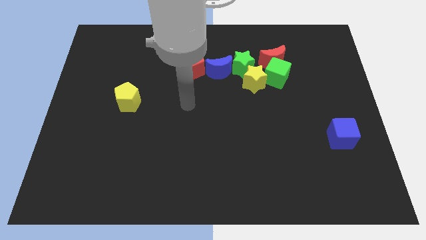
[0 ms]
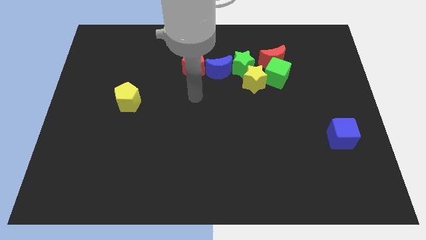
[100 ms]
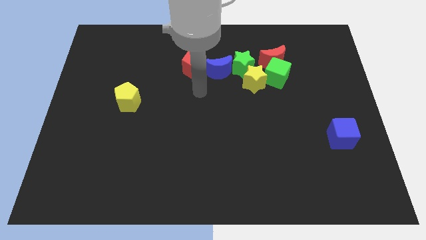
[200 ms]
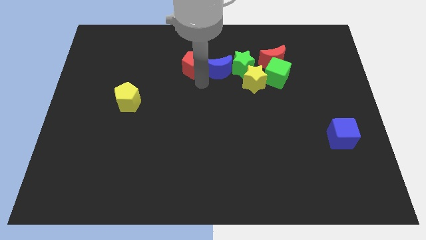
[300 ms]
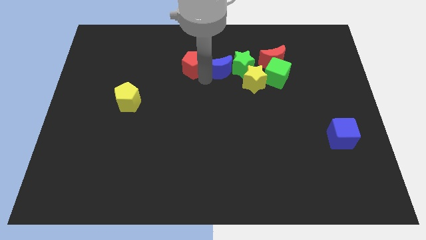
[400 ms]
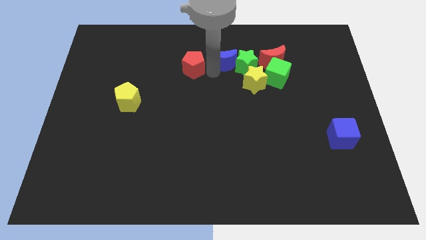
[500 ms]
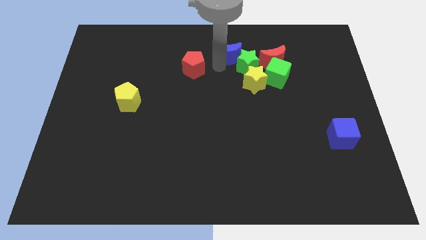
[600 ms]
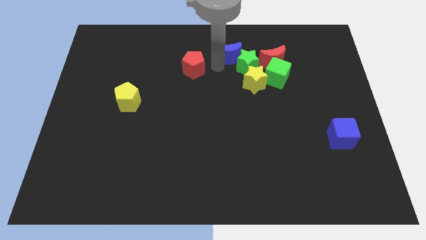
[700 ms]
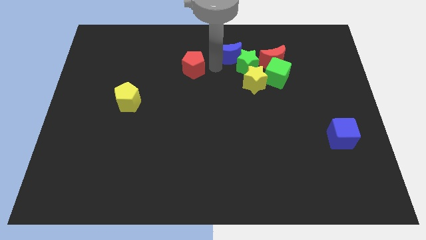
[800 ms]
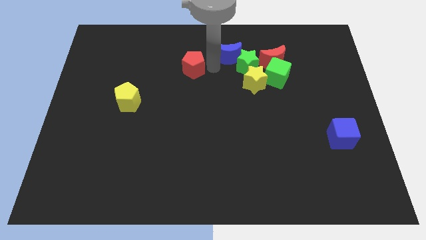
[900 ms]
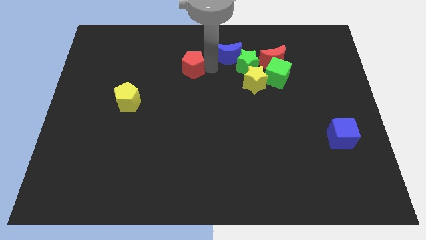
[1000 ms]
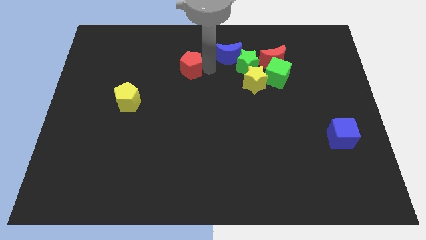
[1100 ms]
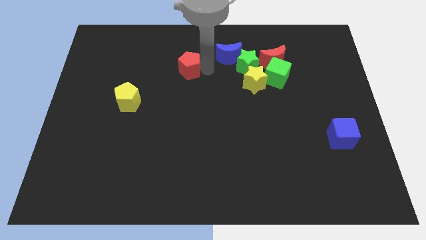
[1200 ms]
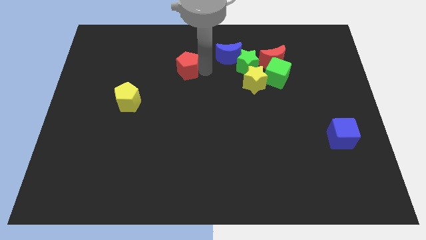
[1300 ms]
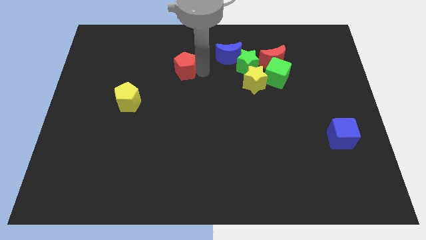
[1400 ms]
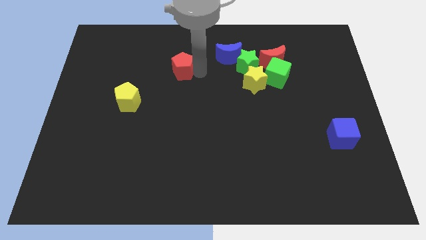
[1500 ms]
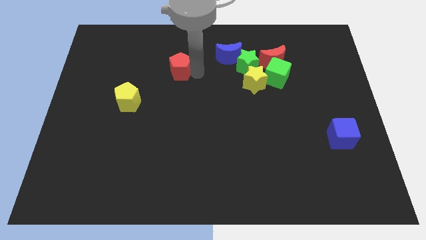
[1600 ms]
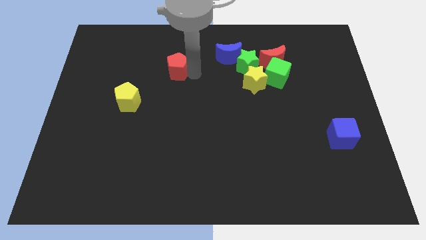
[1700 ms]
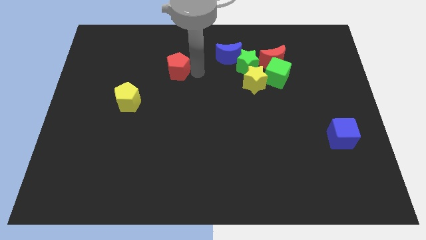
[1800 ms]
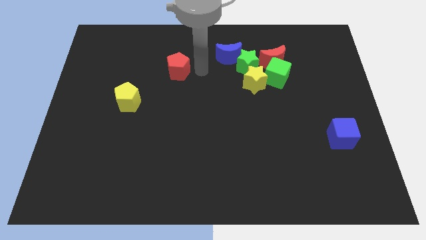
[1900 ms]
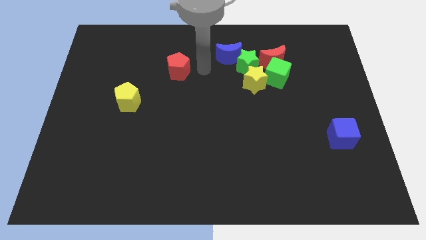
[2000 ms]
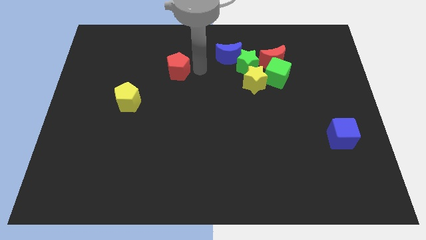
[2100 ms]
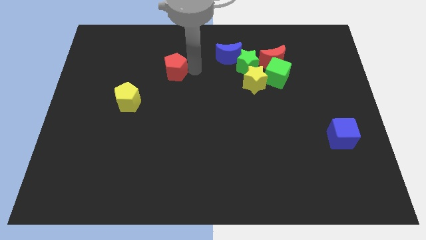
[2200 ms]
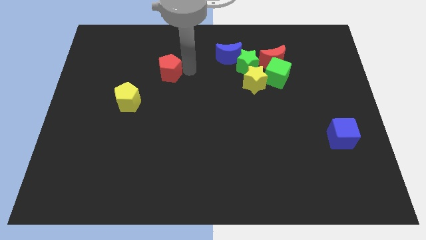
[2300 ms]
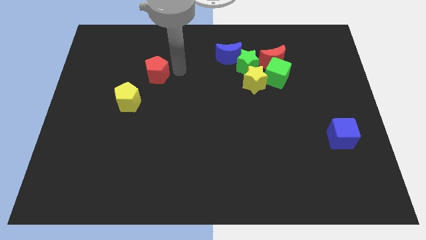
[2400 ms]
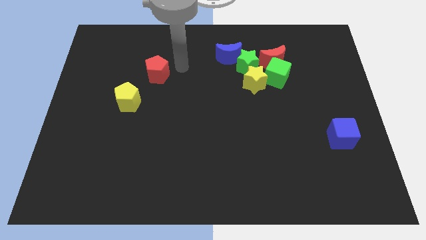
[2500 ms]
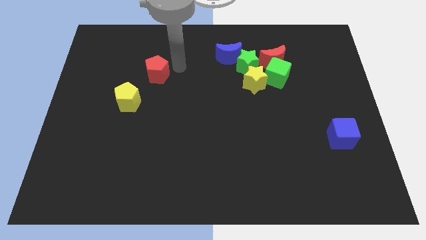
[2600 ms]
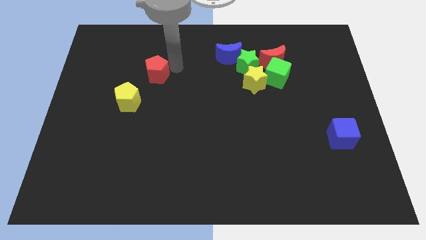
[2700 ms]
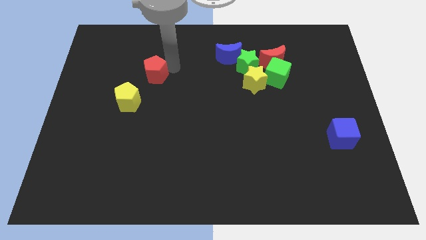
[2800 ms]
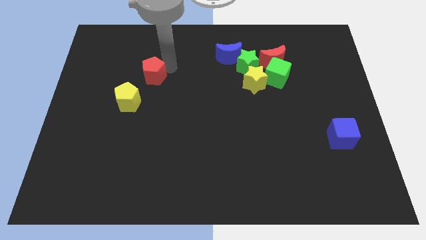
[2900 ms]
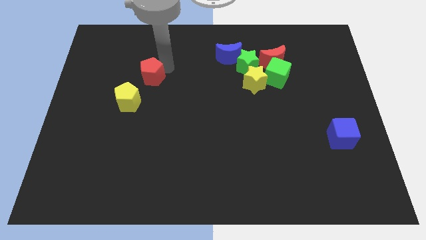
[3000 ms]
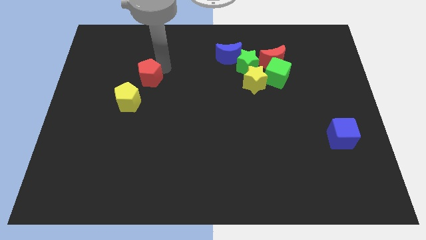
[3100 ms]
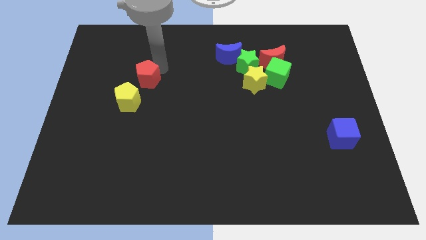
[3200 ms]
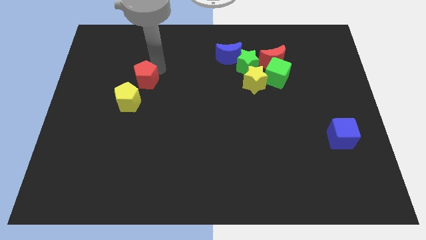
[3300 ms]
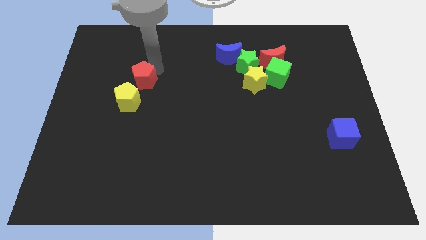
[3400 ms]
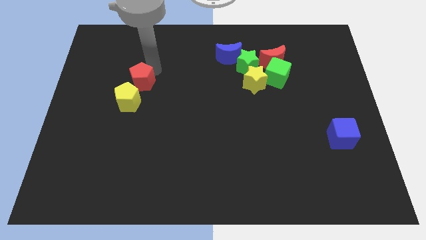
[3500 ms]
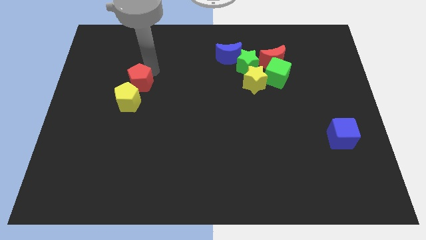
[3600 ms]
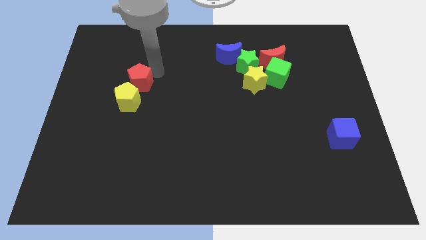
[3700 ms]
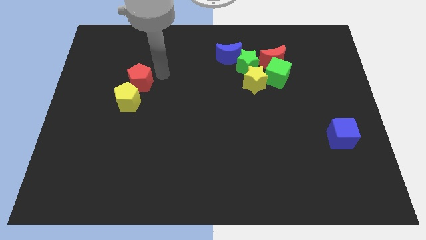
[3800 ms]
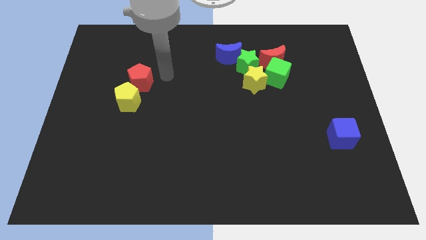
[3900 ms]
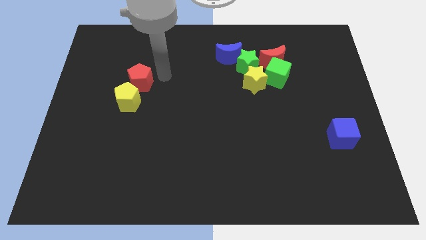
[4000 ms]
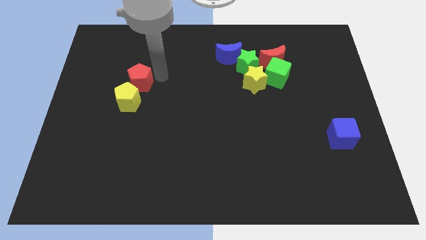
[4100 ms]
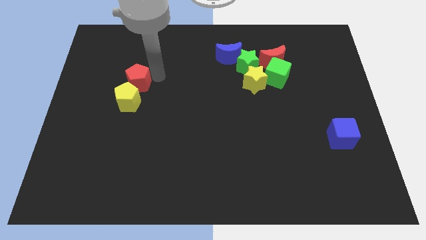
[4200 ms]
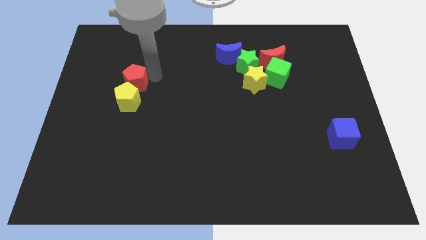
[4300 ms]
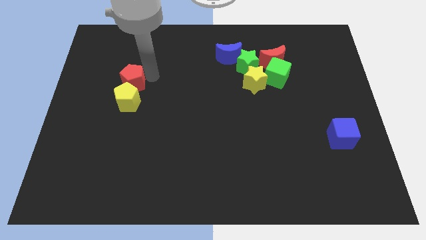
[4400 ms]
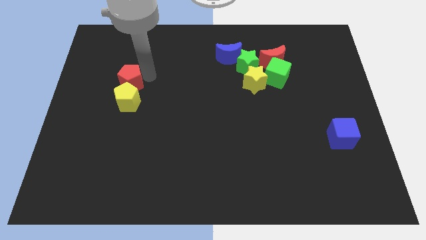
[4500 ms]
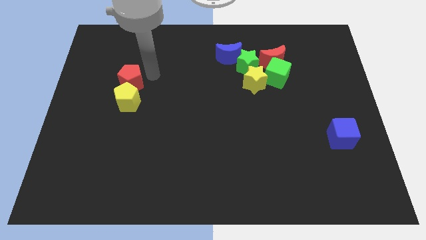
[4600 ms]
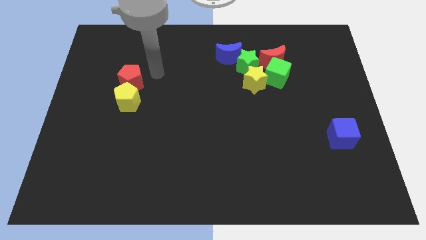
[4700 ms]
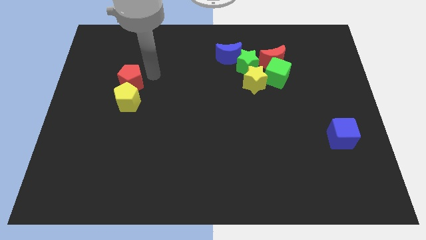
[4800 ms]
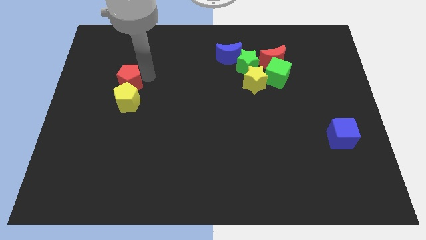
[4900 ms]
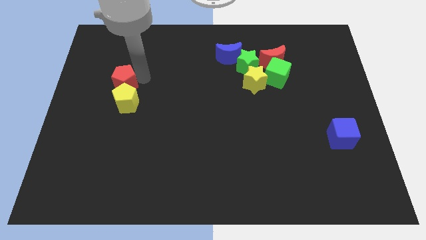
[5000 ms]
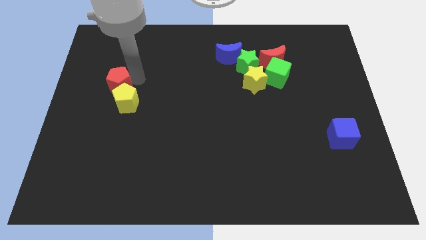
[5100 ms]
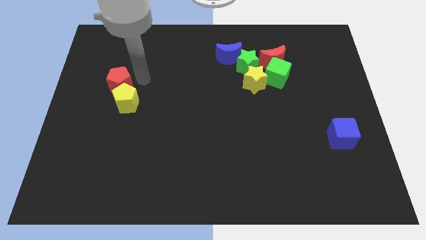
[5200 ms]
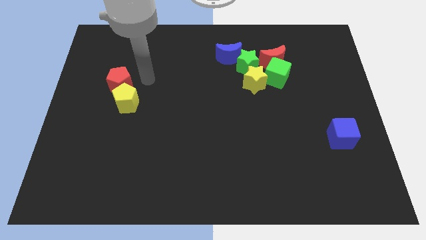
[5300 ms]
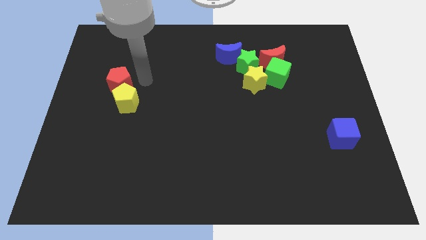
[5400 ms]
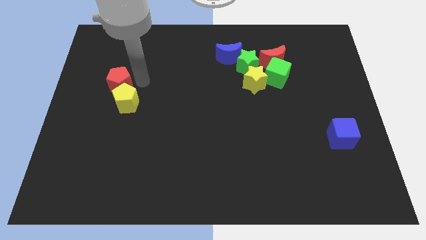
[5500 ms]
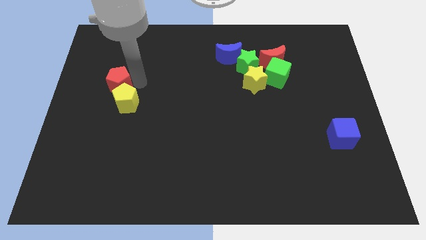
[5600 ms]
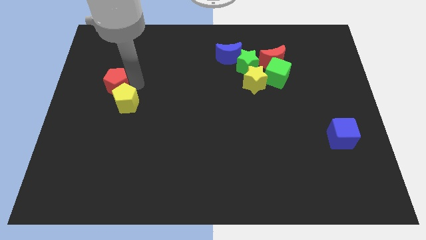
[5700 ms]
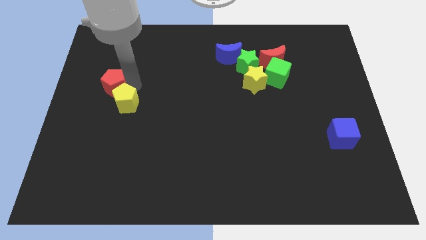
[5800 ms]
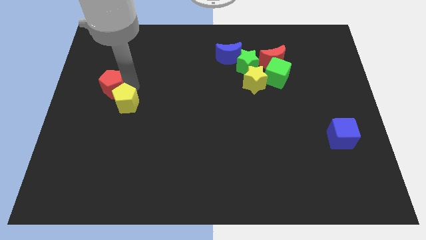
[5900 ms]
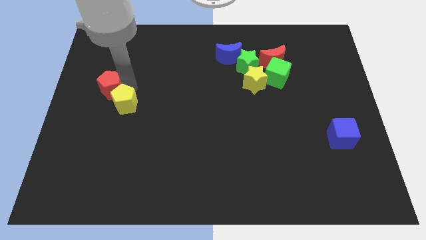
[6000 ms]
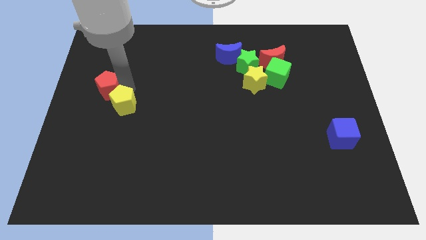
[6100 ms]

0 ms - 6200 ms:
move the red pentagon to the center left

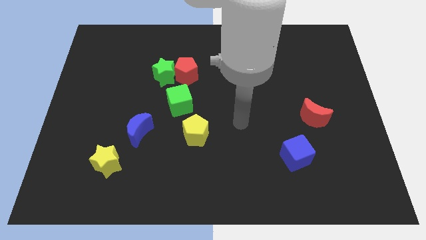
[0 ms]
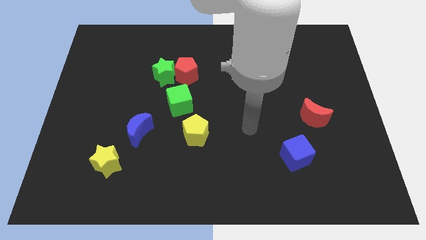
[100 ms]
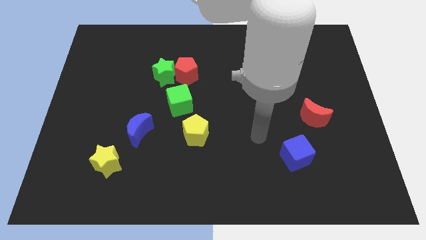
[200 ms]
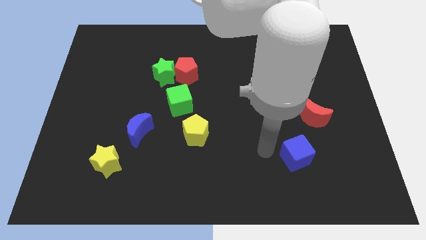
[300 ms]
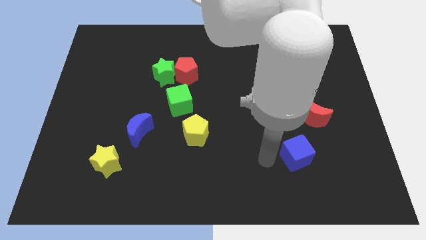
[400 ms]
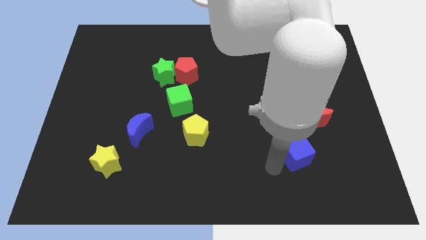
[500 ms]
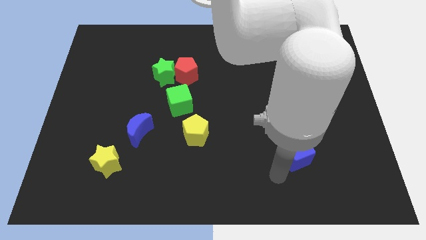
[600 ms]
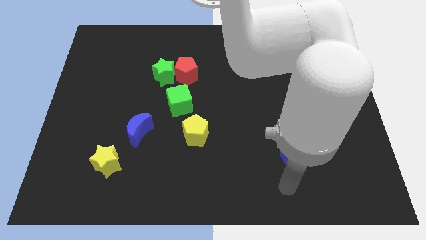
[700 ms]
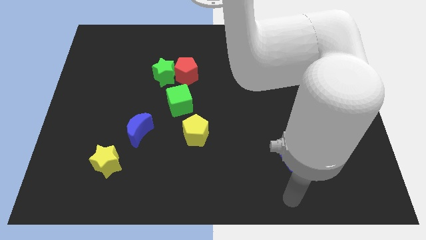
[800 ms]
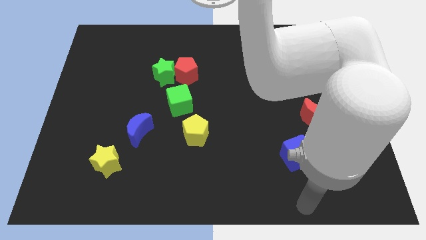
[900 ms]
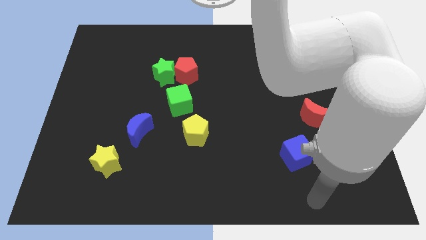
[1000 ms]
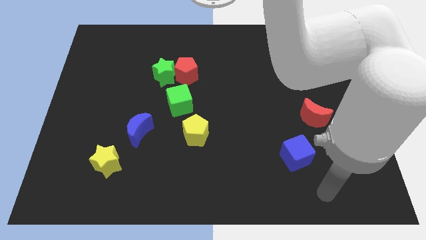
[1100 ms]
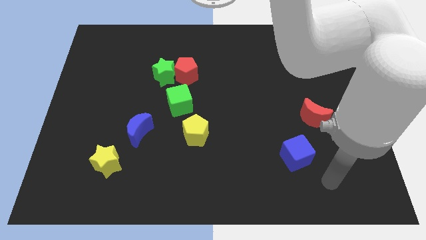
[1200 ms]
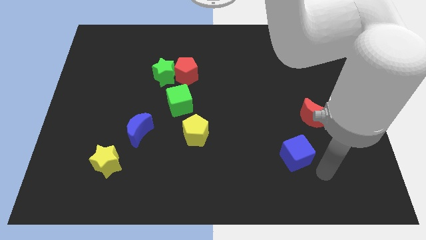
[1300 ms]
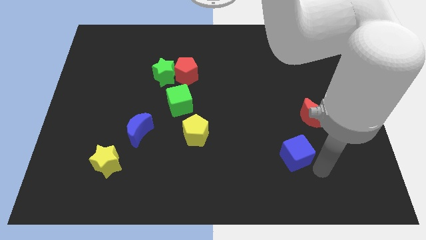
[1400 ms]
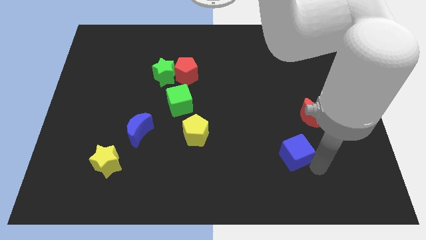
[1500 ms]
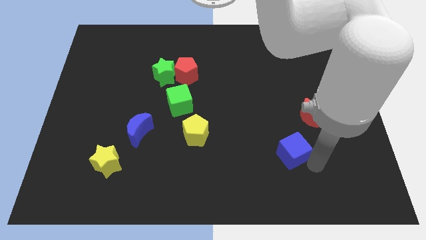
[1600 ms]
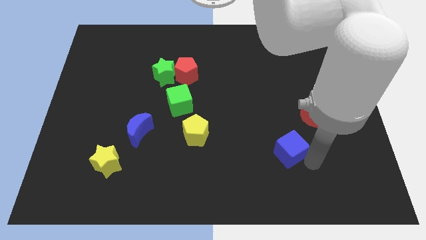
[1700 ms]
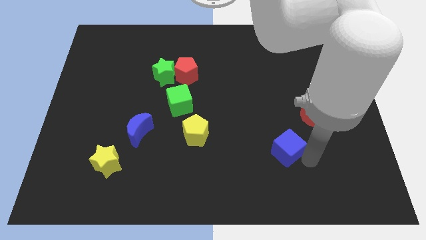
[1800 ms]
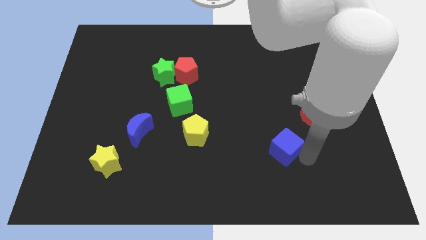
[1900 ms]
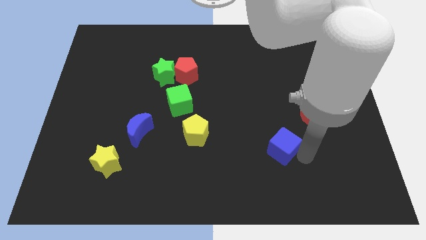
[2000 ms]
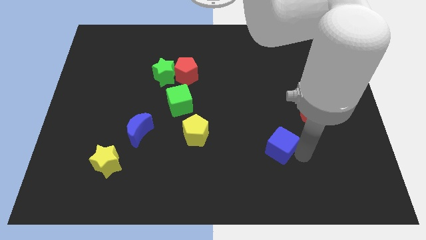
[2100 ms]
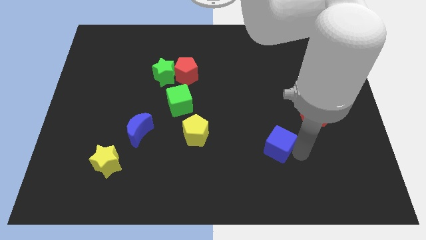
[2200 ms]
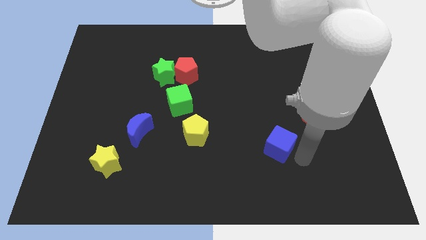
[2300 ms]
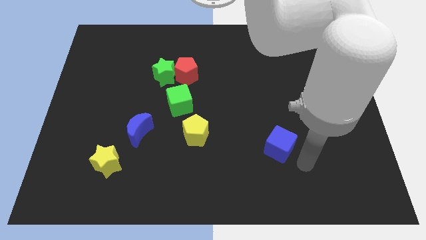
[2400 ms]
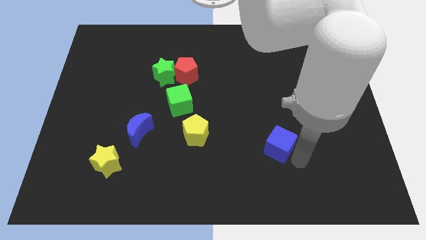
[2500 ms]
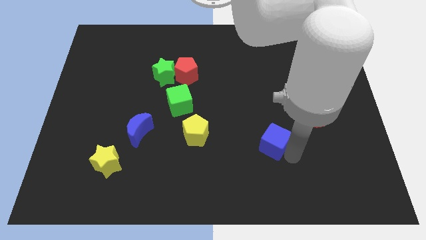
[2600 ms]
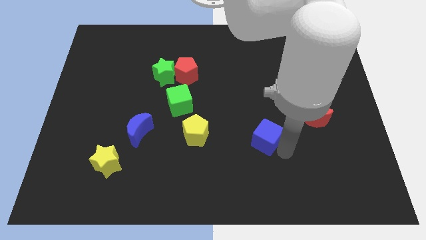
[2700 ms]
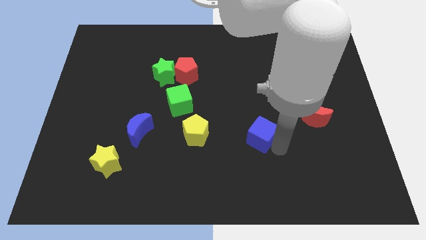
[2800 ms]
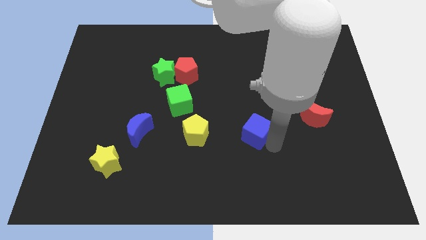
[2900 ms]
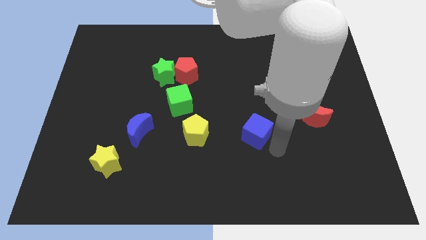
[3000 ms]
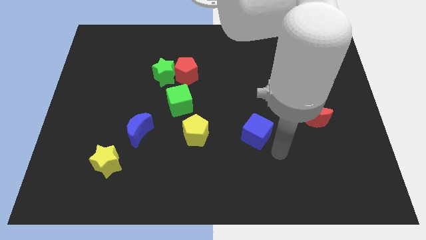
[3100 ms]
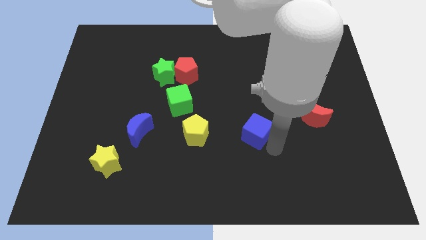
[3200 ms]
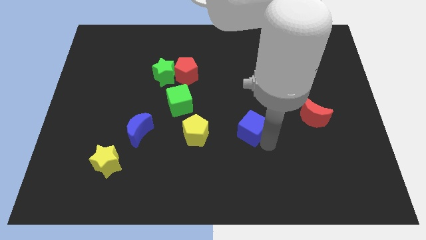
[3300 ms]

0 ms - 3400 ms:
slide the blue cube to the middle of the board
